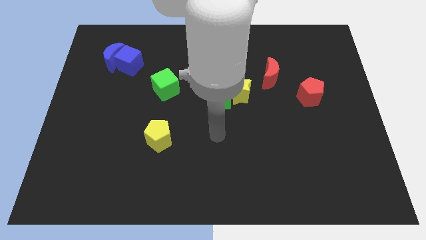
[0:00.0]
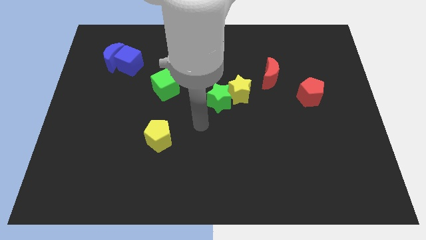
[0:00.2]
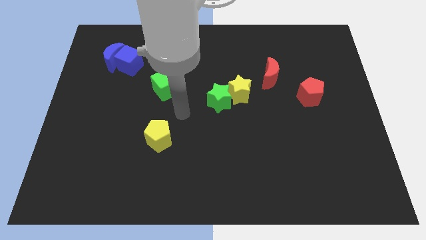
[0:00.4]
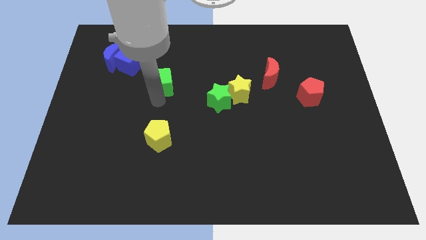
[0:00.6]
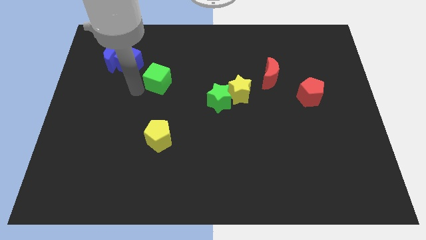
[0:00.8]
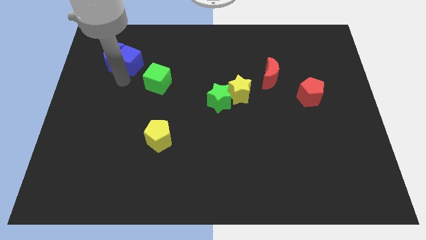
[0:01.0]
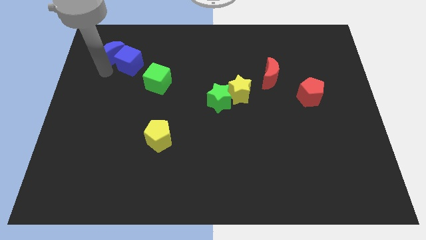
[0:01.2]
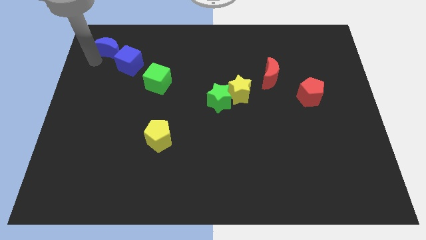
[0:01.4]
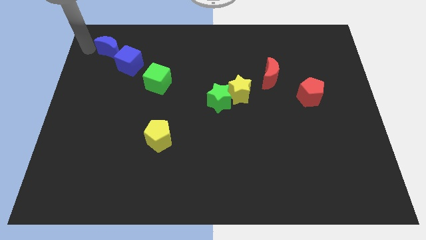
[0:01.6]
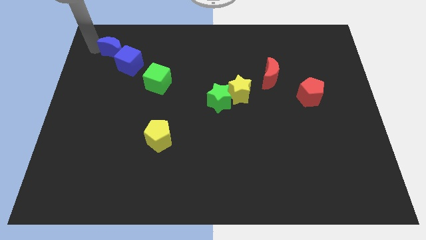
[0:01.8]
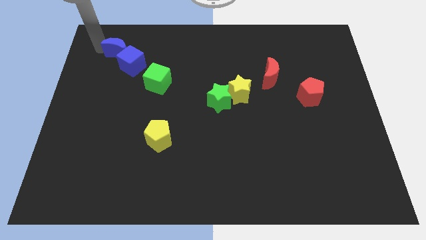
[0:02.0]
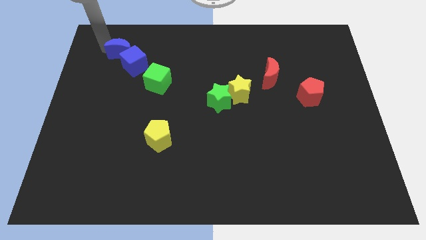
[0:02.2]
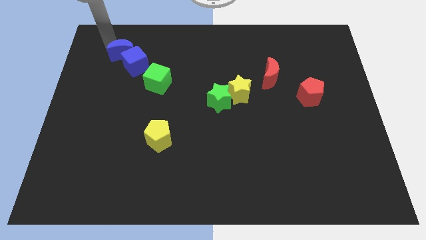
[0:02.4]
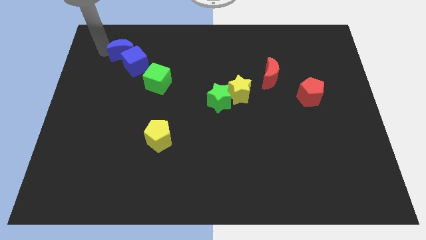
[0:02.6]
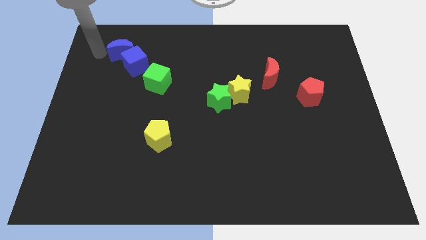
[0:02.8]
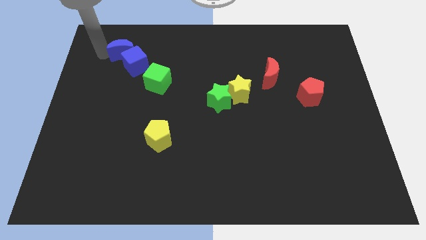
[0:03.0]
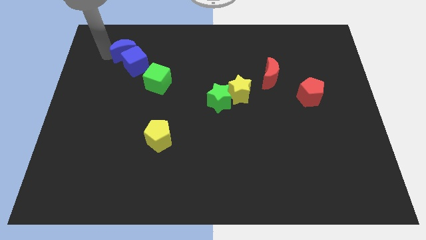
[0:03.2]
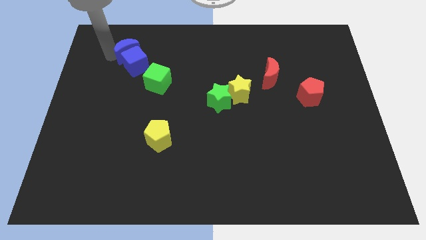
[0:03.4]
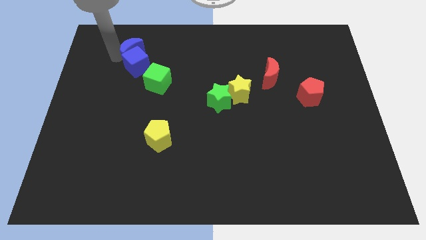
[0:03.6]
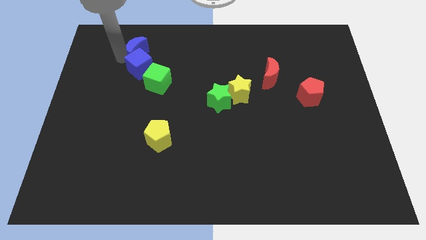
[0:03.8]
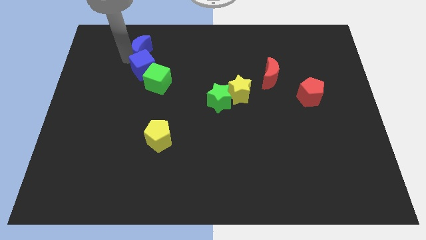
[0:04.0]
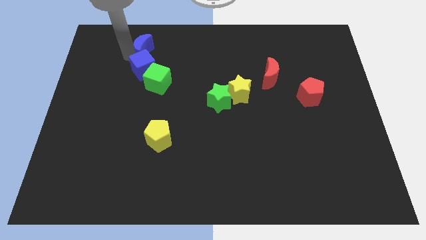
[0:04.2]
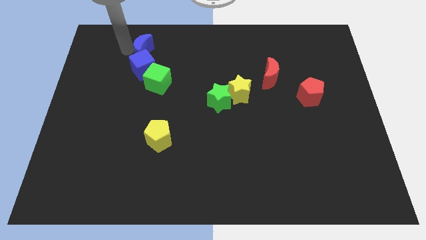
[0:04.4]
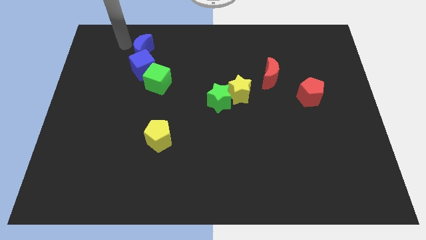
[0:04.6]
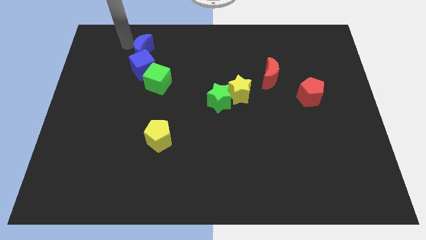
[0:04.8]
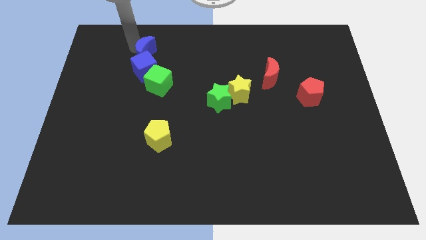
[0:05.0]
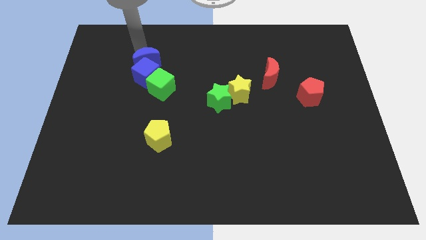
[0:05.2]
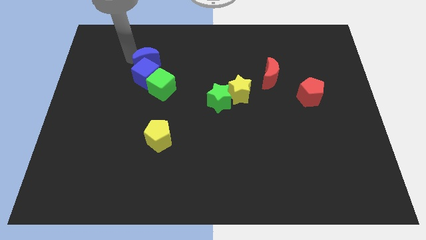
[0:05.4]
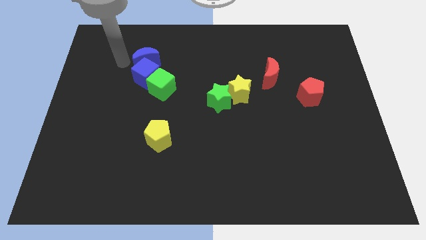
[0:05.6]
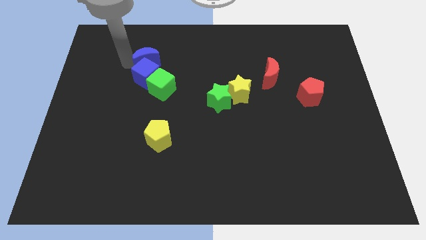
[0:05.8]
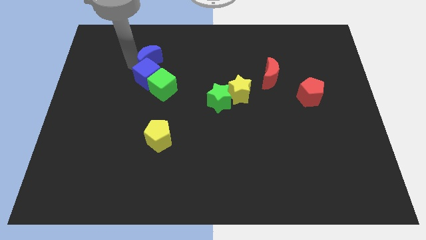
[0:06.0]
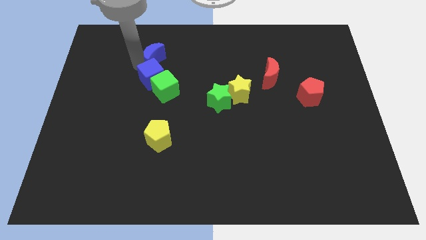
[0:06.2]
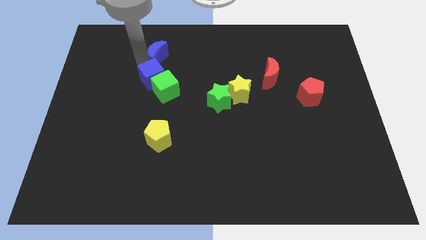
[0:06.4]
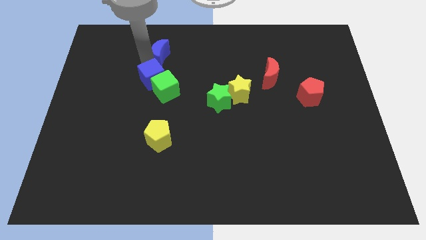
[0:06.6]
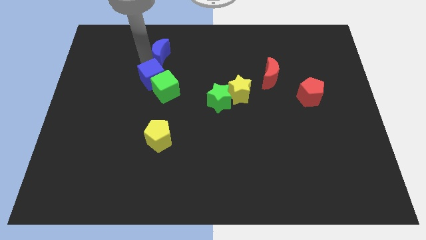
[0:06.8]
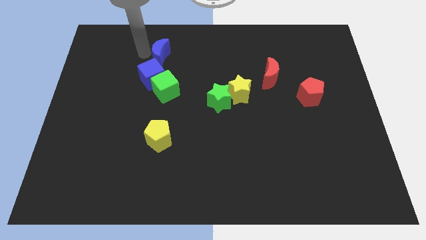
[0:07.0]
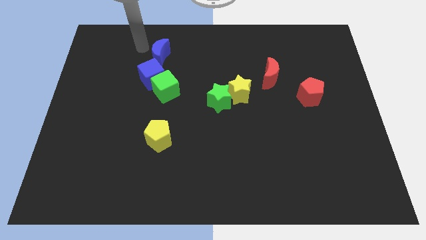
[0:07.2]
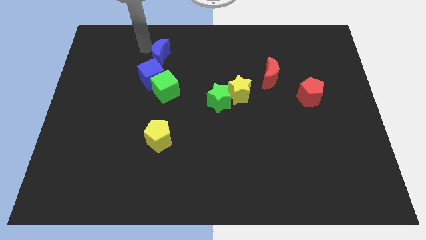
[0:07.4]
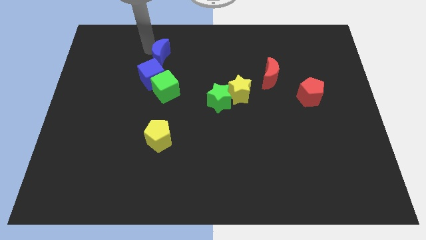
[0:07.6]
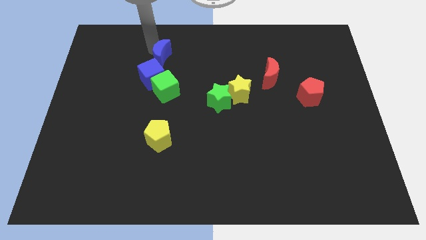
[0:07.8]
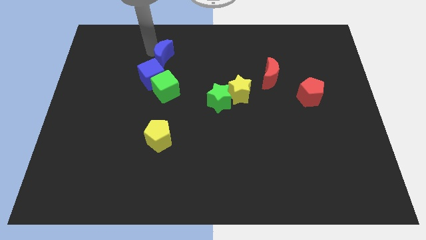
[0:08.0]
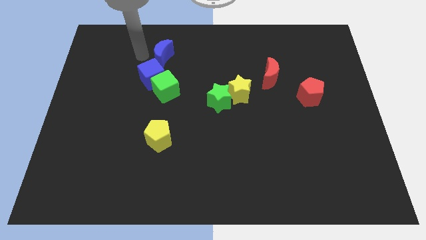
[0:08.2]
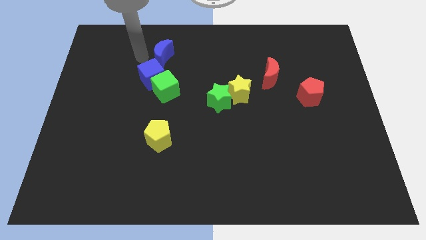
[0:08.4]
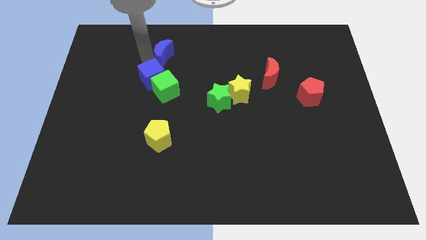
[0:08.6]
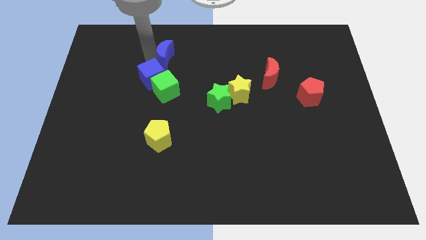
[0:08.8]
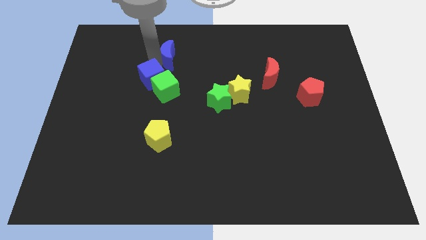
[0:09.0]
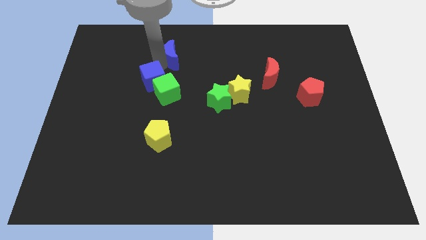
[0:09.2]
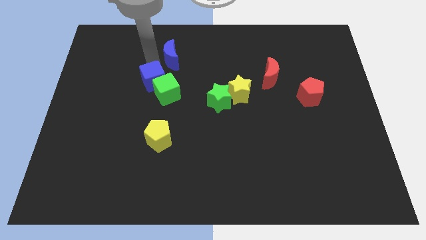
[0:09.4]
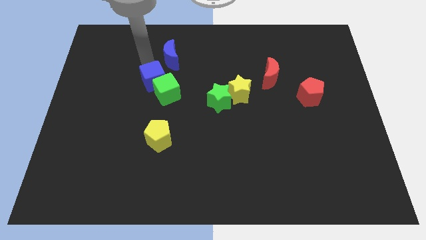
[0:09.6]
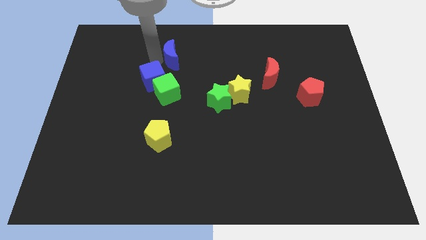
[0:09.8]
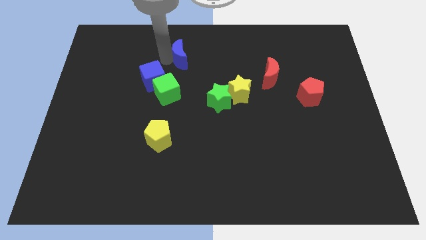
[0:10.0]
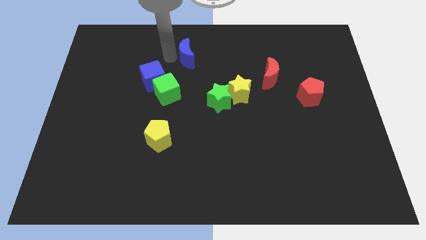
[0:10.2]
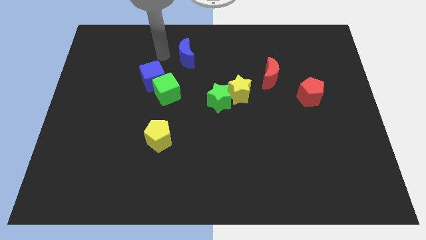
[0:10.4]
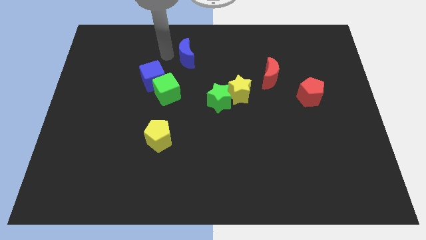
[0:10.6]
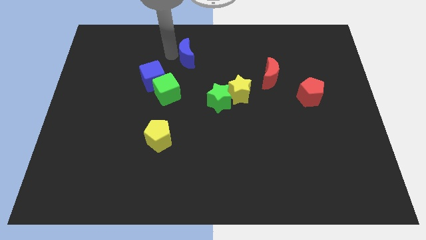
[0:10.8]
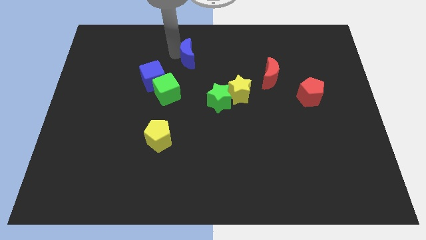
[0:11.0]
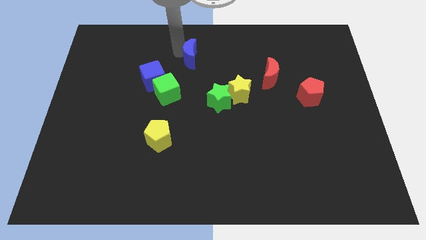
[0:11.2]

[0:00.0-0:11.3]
move the blue moon to the right

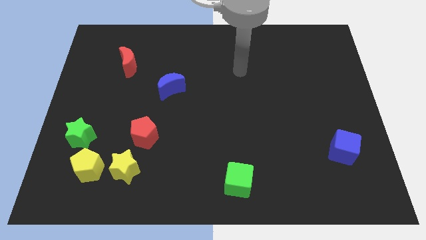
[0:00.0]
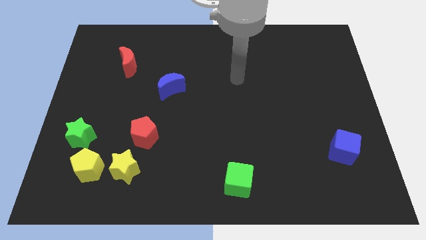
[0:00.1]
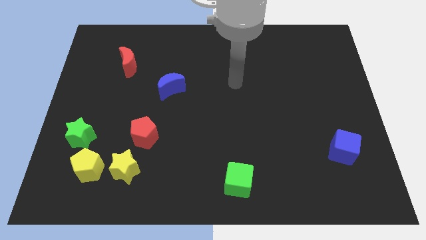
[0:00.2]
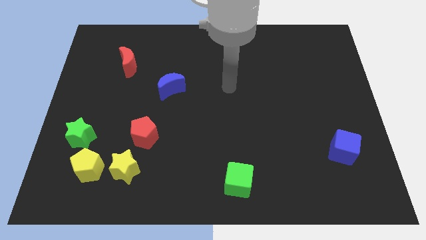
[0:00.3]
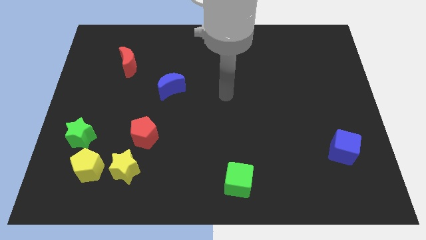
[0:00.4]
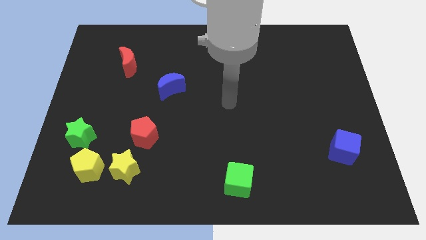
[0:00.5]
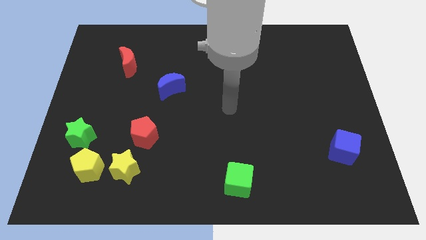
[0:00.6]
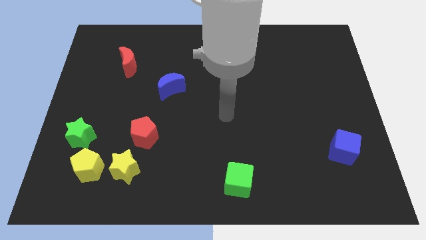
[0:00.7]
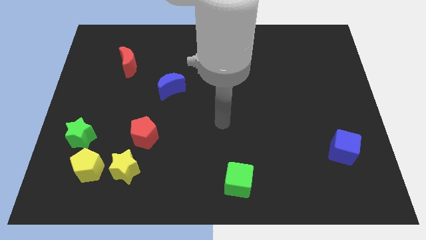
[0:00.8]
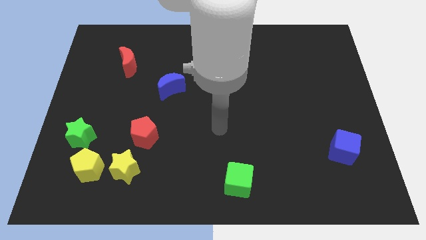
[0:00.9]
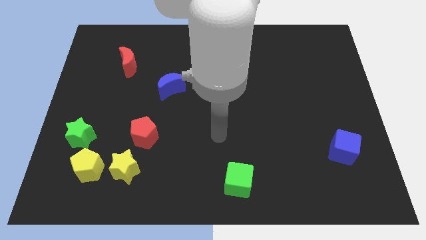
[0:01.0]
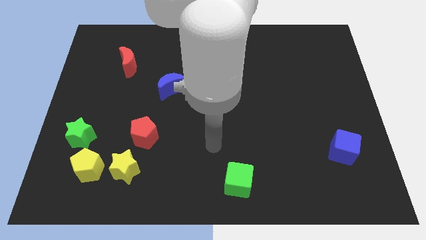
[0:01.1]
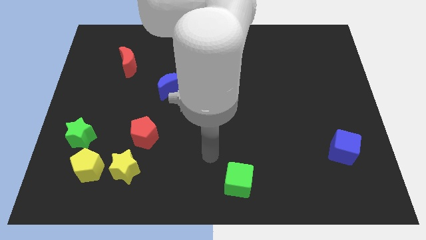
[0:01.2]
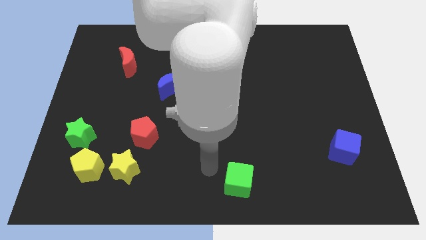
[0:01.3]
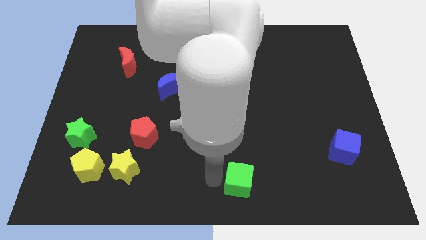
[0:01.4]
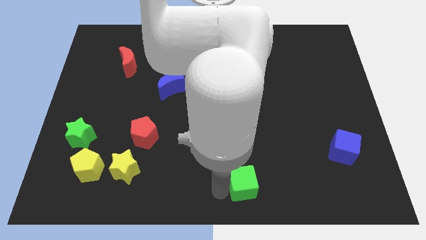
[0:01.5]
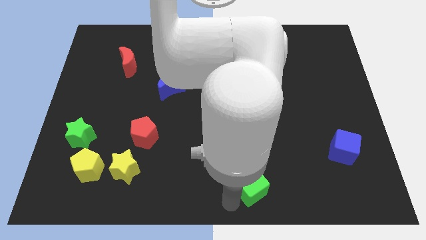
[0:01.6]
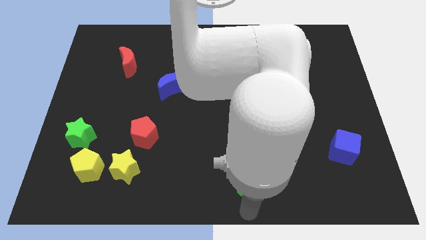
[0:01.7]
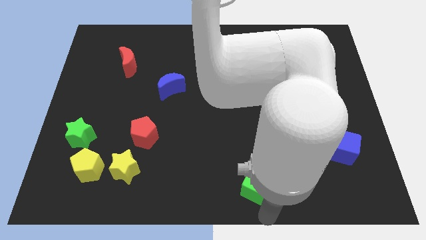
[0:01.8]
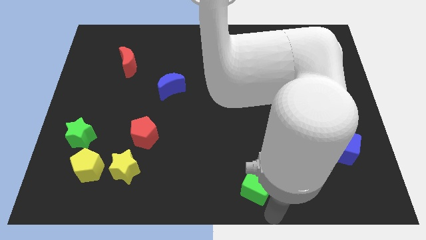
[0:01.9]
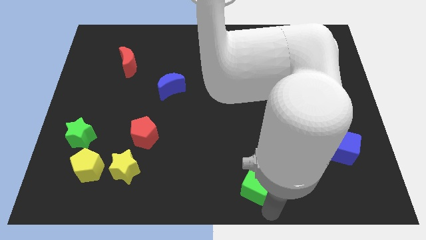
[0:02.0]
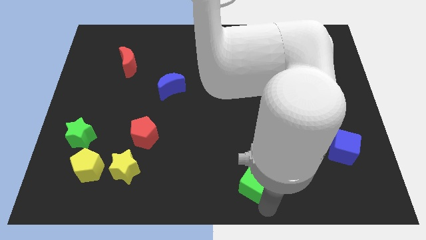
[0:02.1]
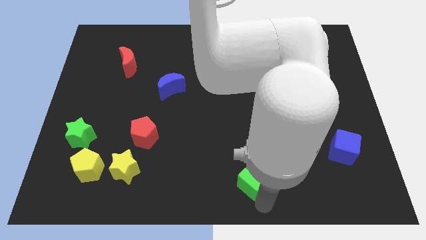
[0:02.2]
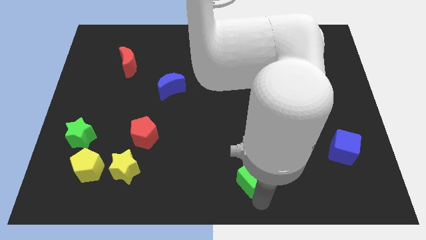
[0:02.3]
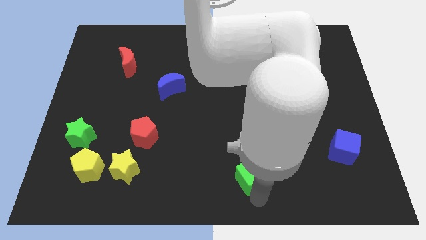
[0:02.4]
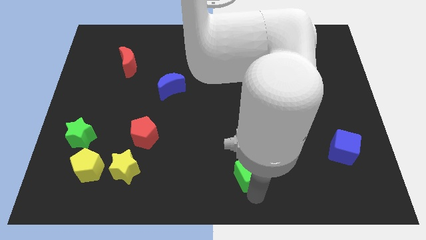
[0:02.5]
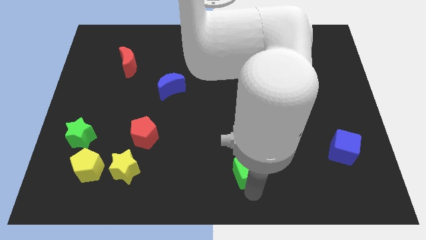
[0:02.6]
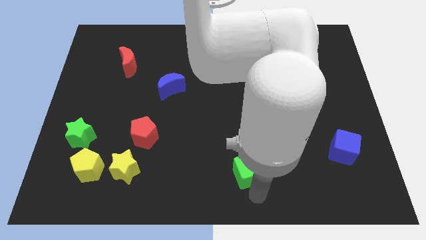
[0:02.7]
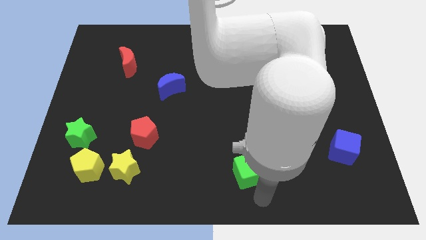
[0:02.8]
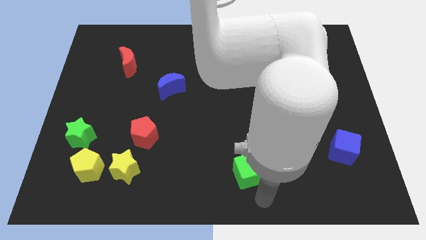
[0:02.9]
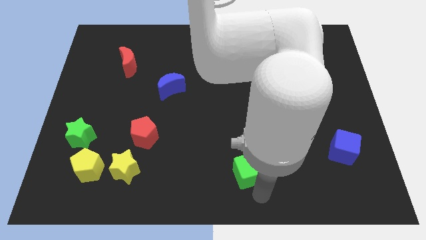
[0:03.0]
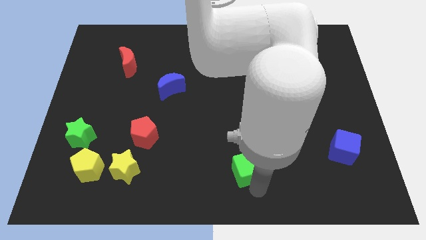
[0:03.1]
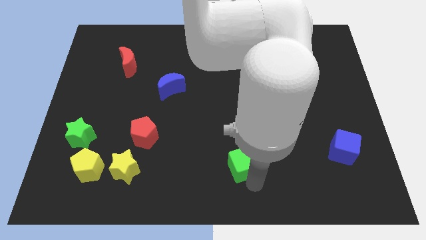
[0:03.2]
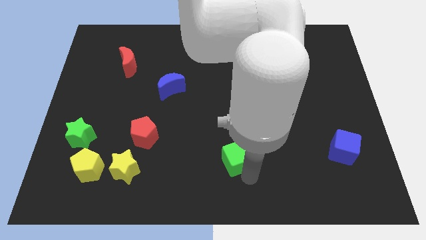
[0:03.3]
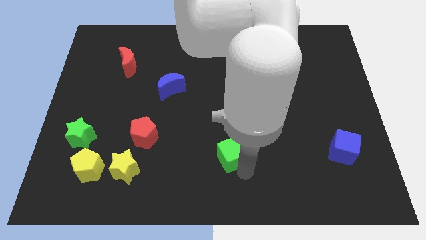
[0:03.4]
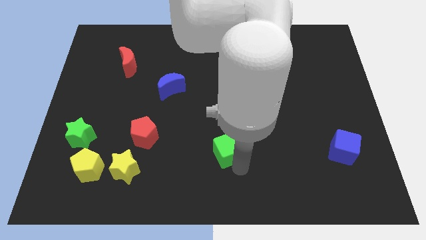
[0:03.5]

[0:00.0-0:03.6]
move the green cube upwards a bit
